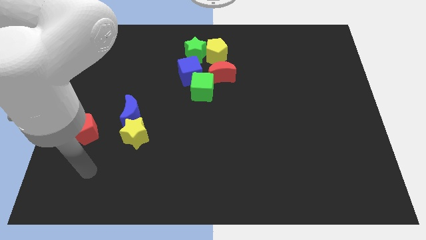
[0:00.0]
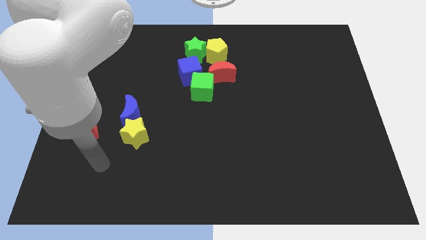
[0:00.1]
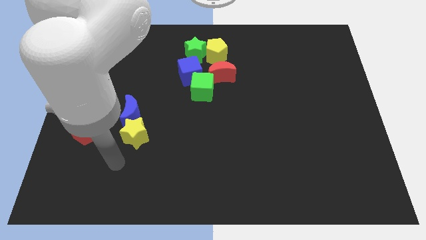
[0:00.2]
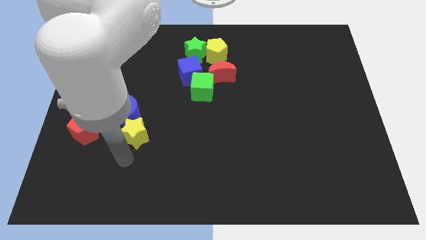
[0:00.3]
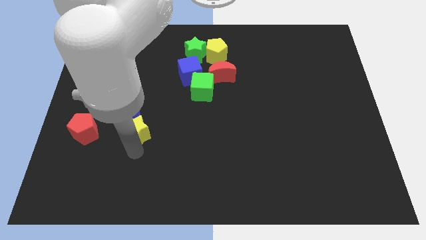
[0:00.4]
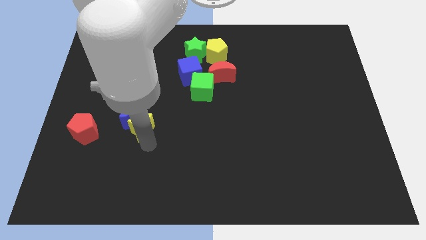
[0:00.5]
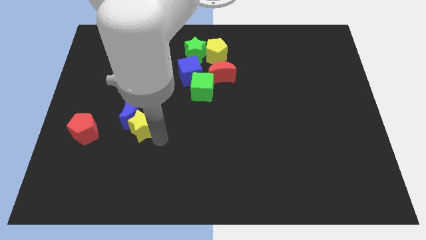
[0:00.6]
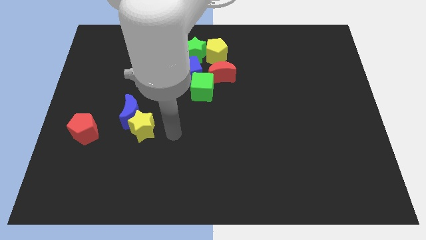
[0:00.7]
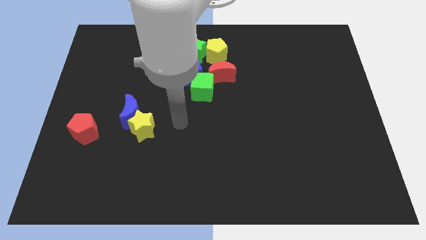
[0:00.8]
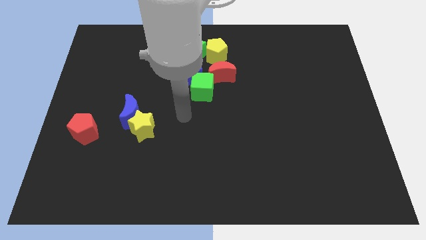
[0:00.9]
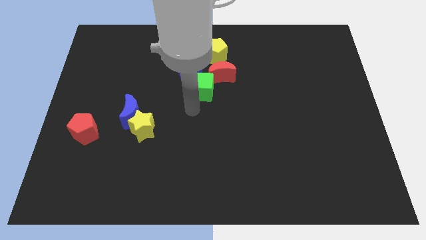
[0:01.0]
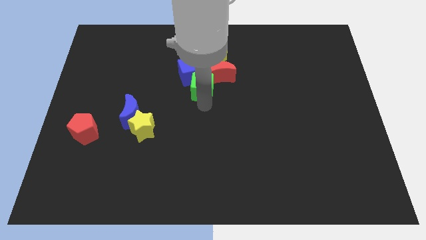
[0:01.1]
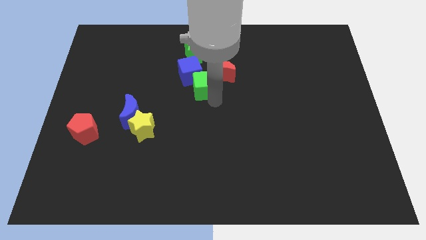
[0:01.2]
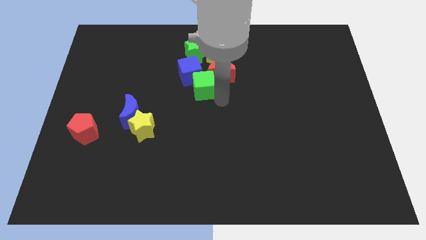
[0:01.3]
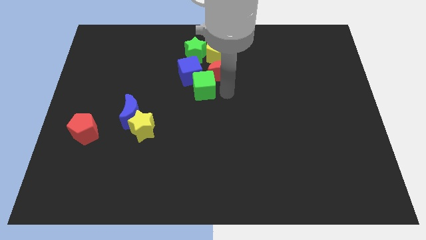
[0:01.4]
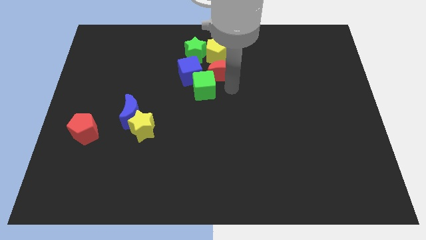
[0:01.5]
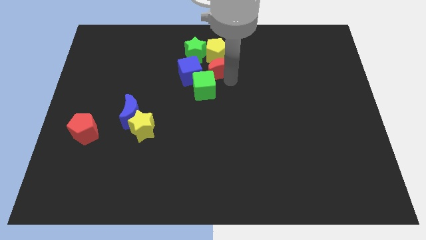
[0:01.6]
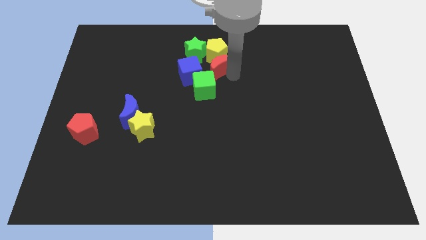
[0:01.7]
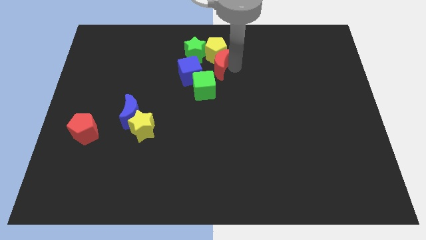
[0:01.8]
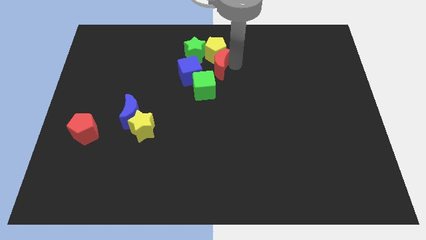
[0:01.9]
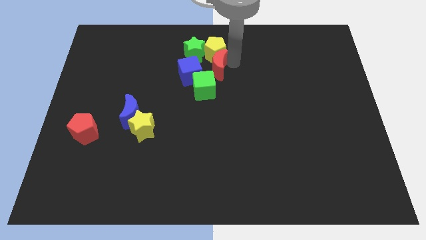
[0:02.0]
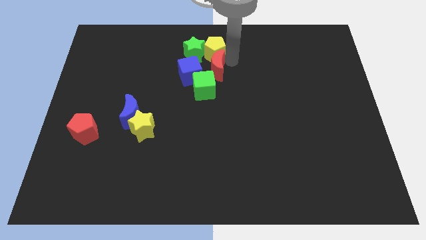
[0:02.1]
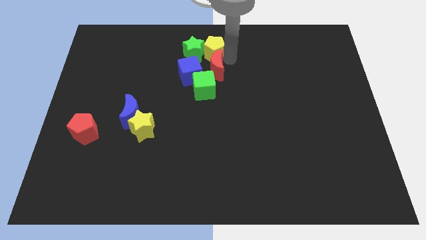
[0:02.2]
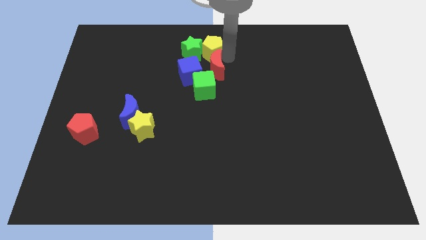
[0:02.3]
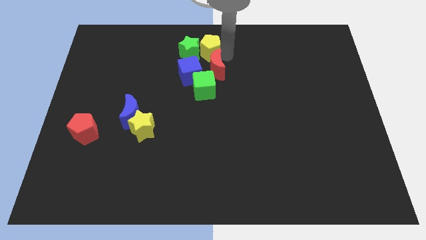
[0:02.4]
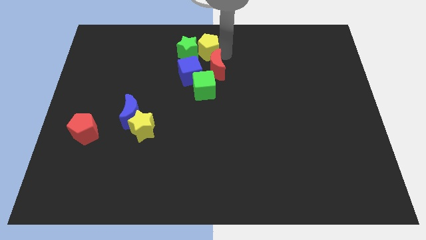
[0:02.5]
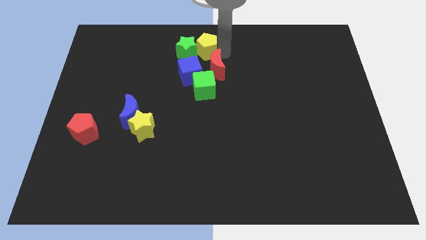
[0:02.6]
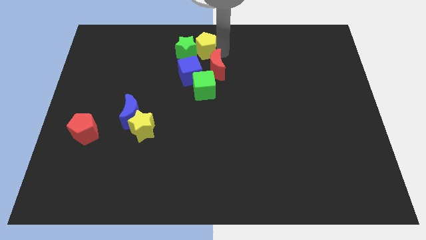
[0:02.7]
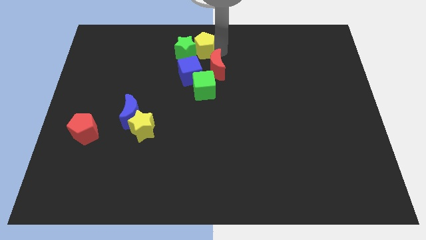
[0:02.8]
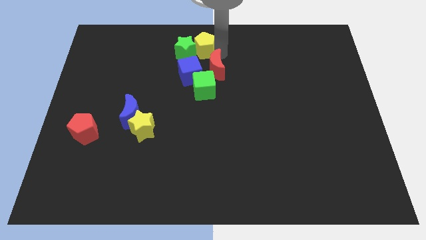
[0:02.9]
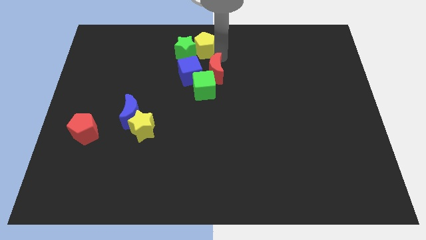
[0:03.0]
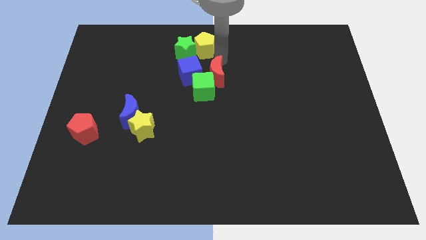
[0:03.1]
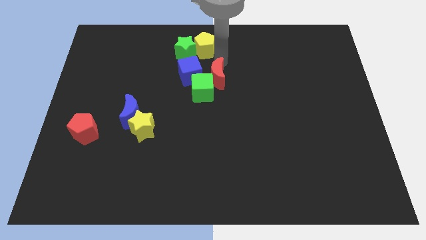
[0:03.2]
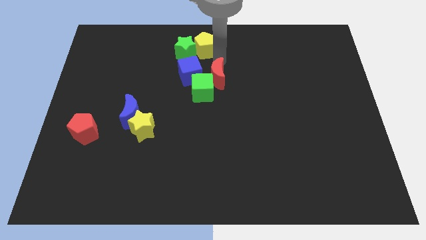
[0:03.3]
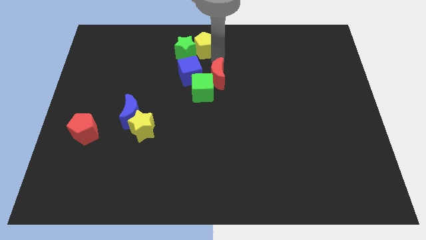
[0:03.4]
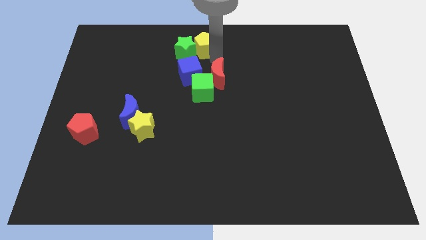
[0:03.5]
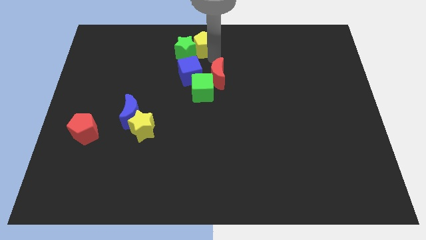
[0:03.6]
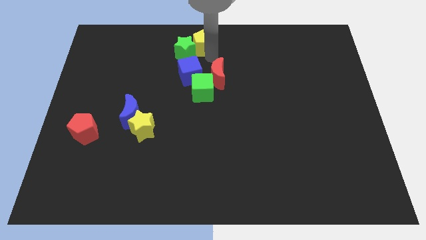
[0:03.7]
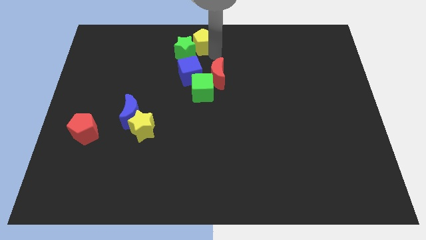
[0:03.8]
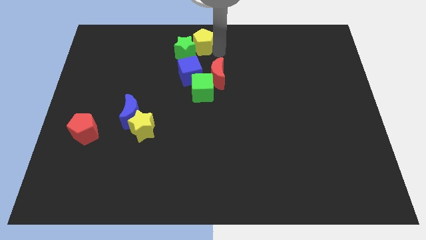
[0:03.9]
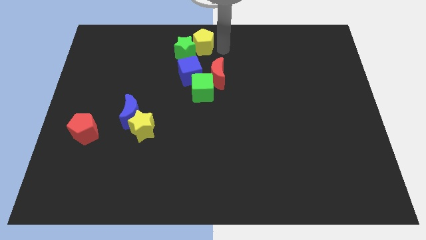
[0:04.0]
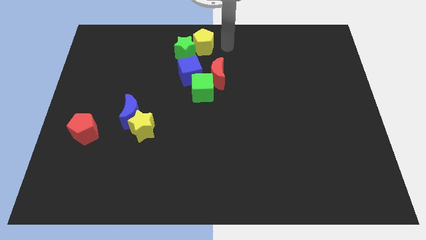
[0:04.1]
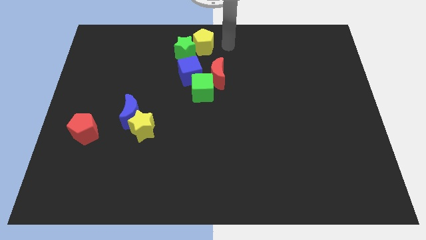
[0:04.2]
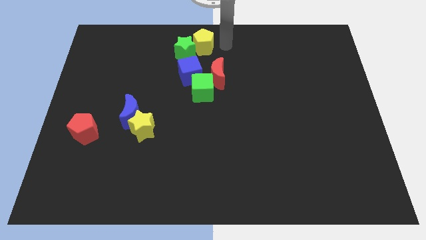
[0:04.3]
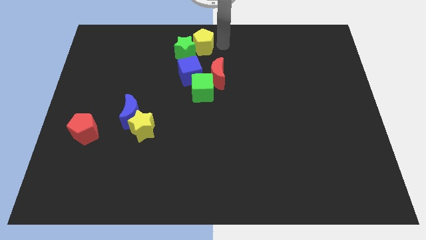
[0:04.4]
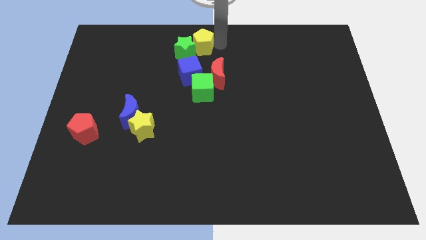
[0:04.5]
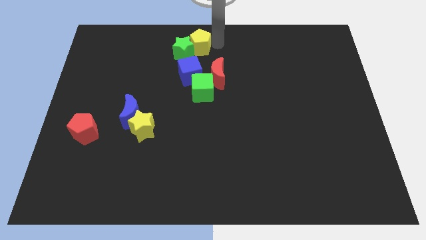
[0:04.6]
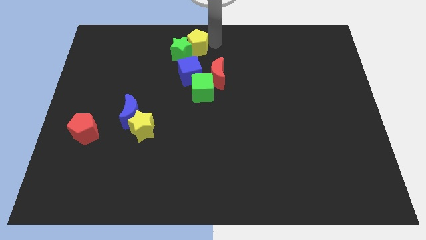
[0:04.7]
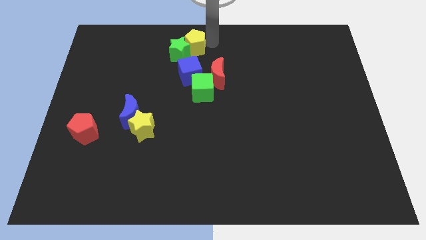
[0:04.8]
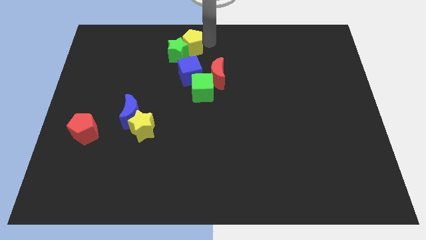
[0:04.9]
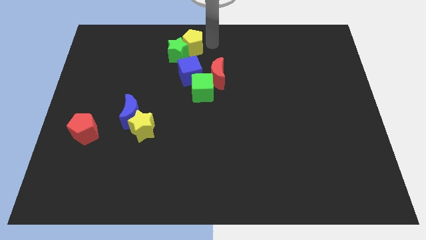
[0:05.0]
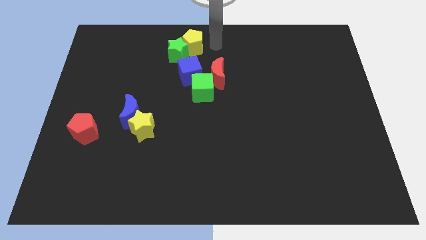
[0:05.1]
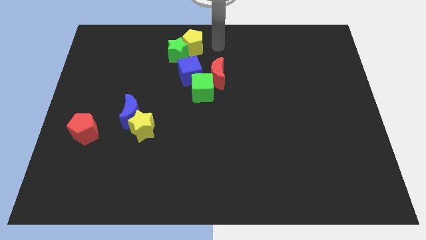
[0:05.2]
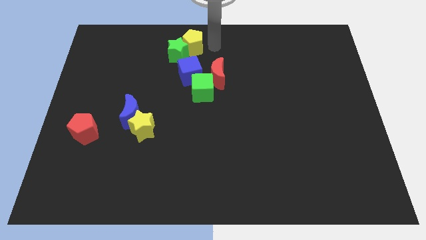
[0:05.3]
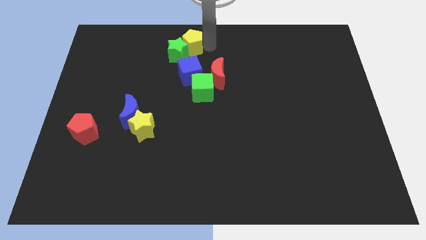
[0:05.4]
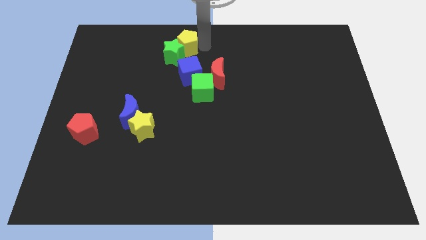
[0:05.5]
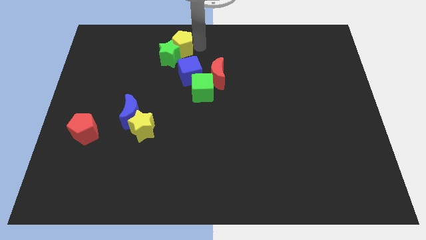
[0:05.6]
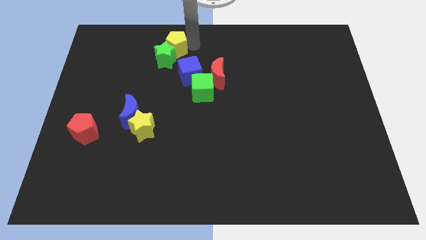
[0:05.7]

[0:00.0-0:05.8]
slide the yellow pentagon to the top left side of the blue cube

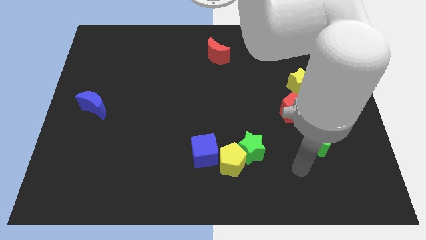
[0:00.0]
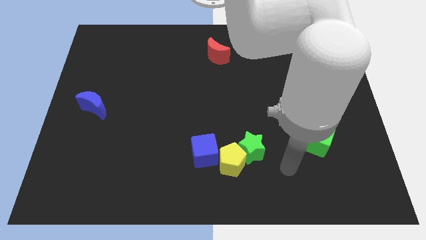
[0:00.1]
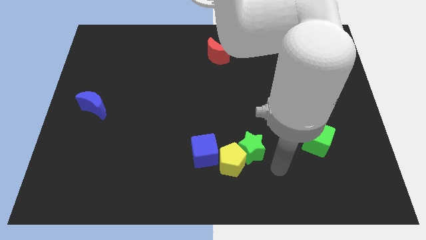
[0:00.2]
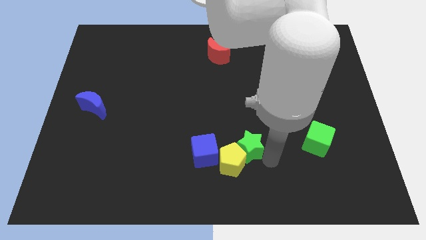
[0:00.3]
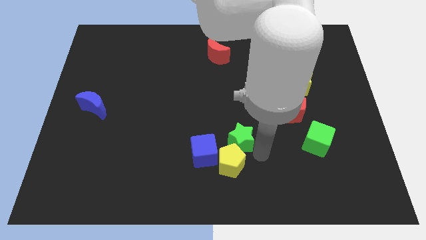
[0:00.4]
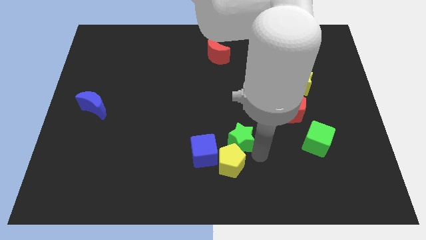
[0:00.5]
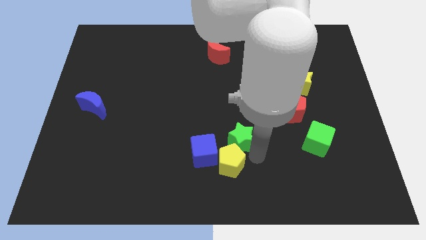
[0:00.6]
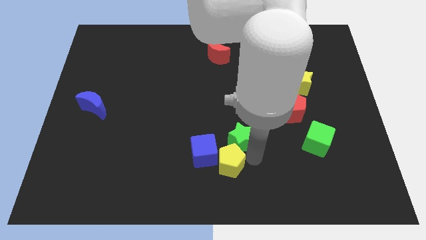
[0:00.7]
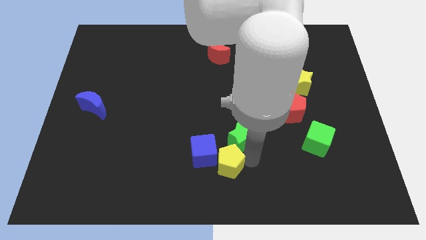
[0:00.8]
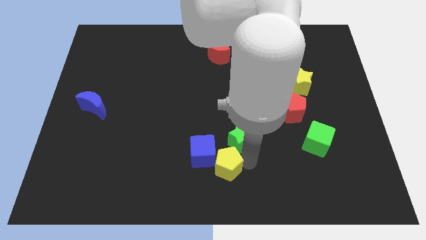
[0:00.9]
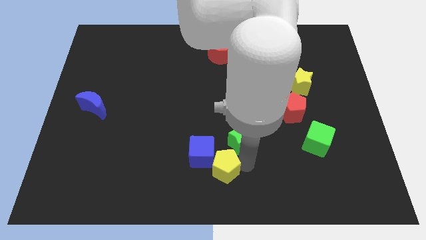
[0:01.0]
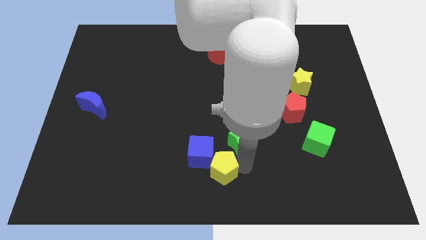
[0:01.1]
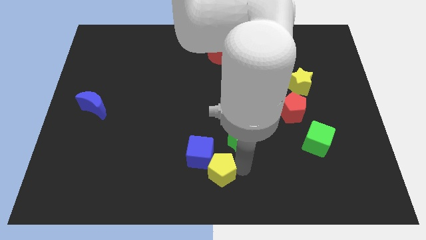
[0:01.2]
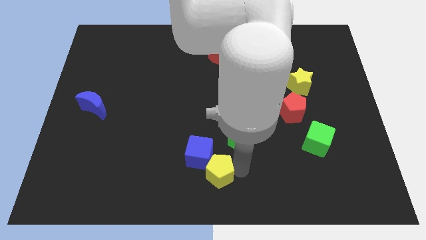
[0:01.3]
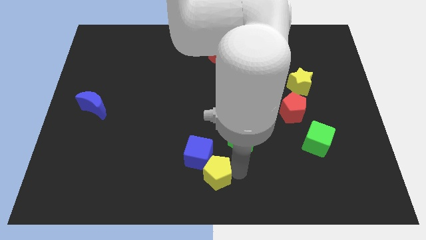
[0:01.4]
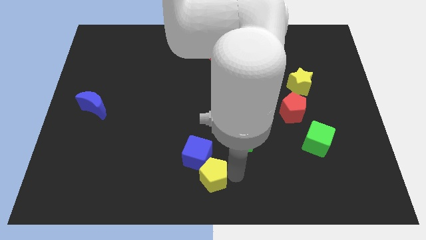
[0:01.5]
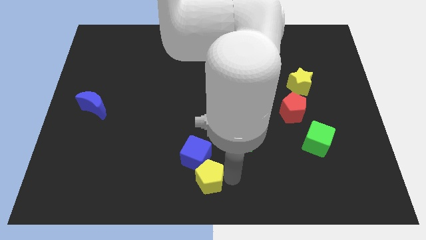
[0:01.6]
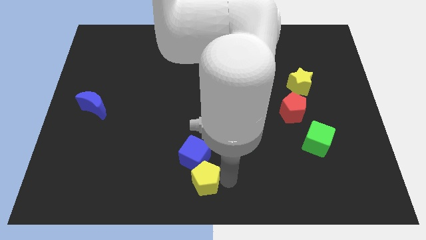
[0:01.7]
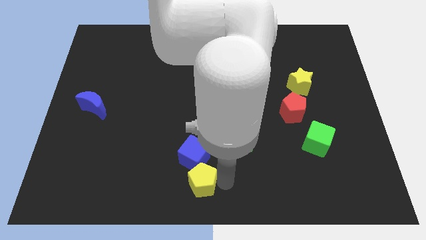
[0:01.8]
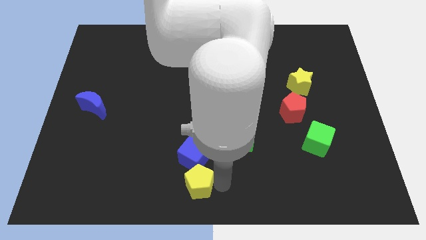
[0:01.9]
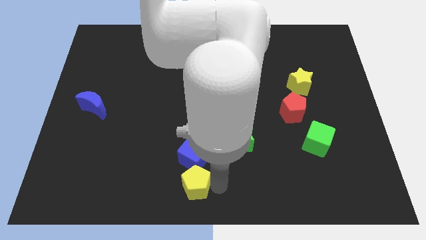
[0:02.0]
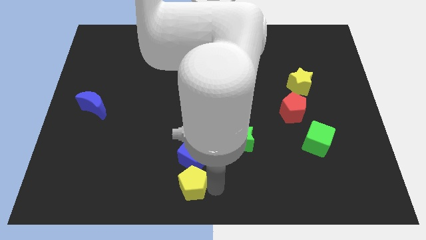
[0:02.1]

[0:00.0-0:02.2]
push the yellow pentagon diagonally down and to the left of the blue cube
